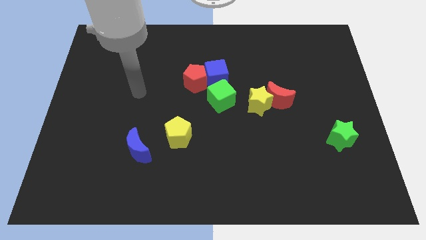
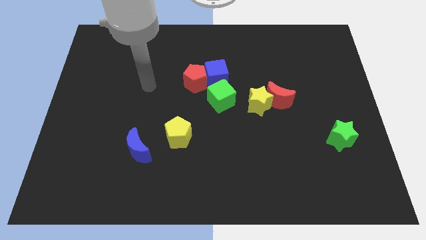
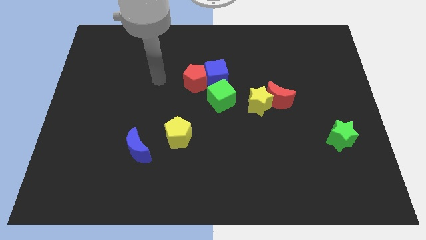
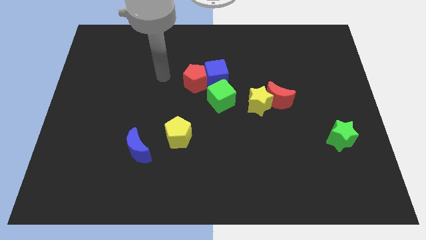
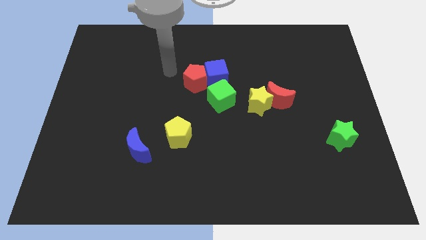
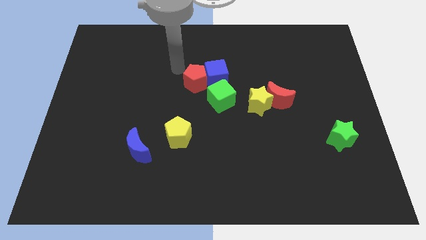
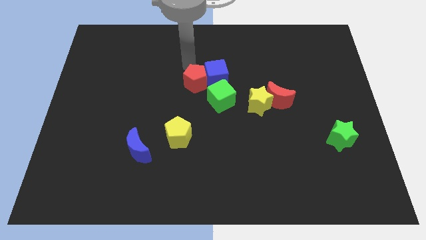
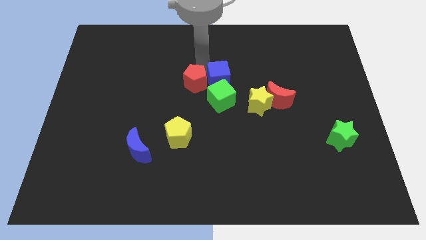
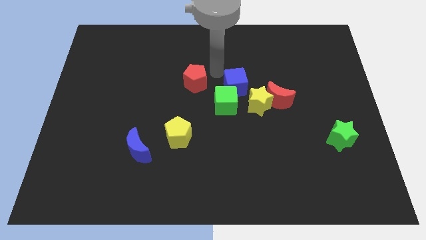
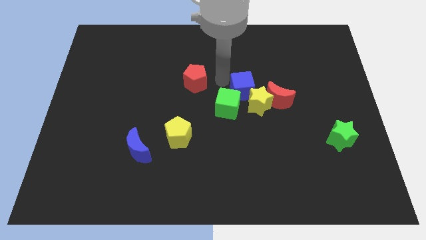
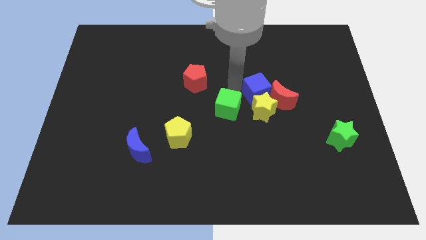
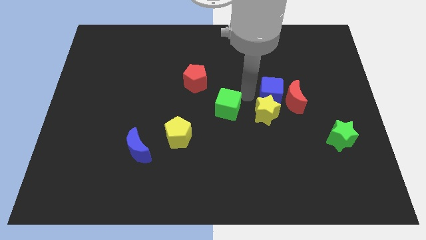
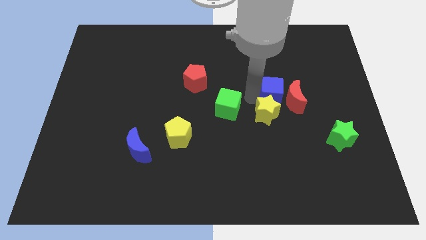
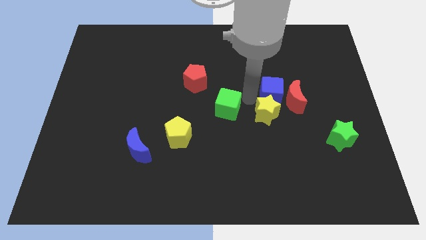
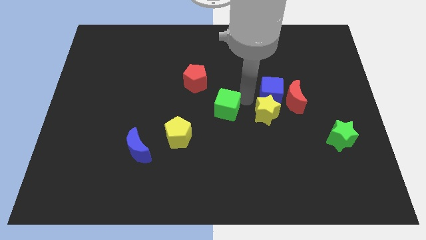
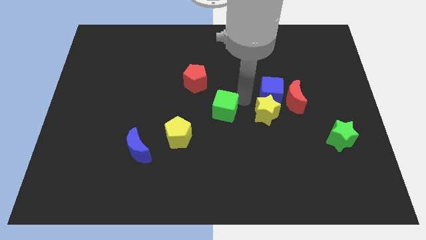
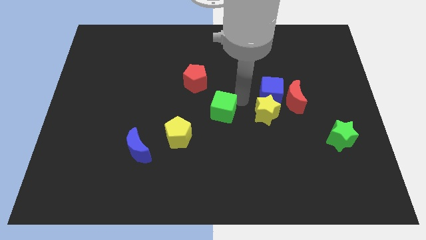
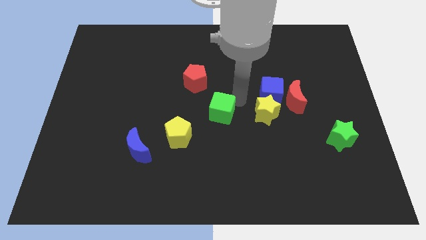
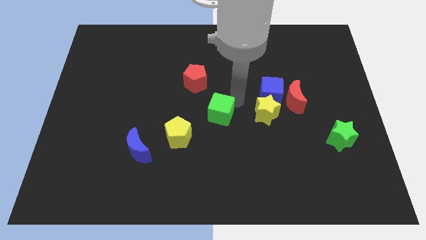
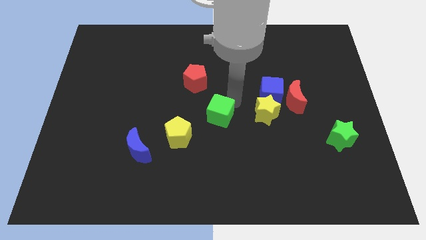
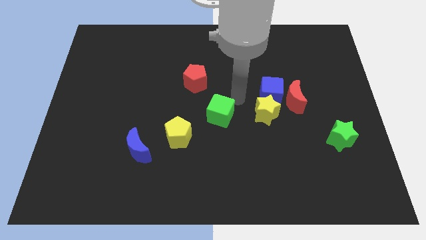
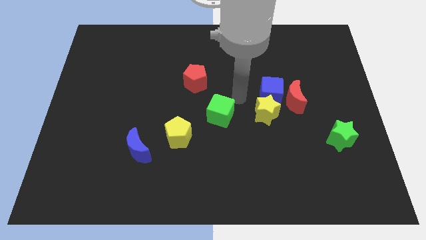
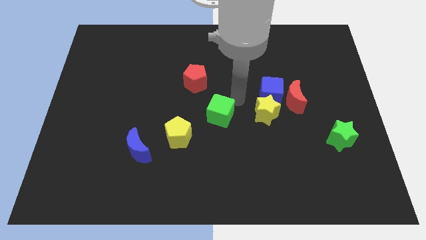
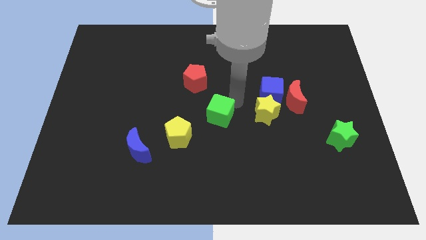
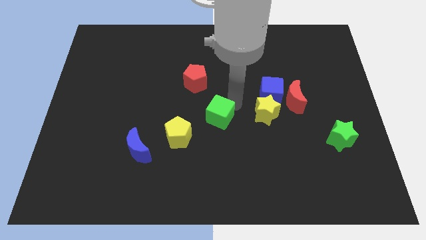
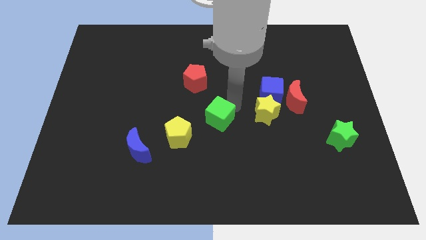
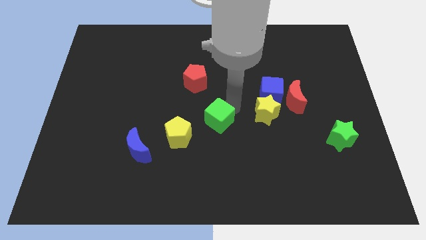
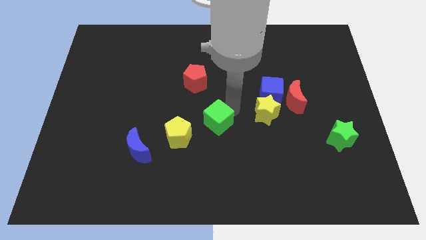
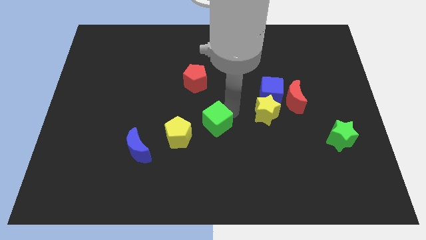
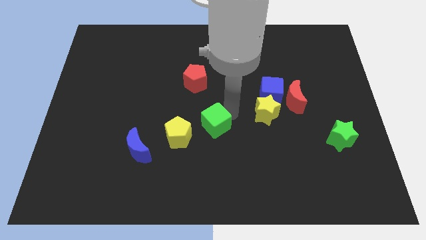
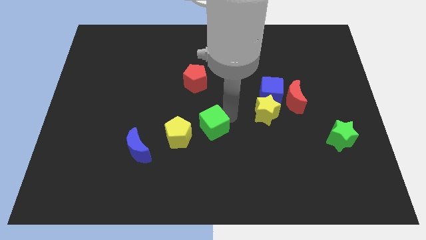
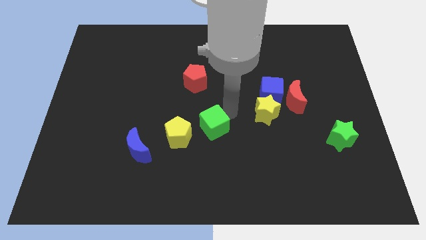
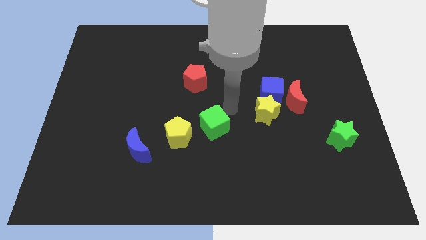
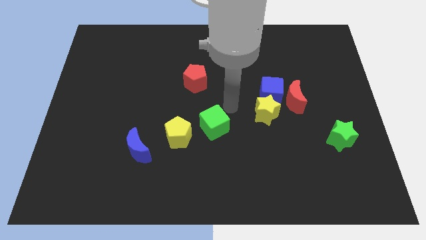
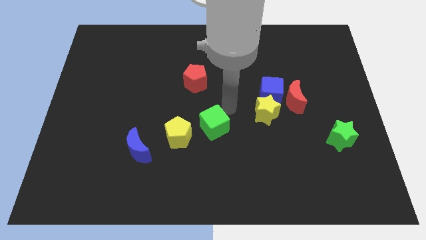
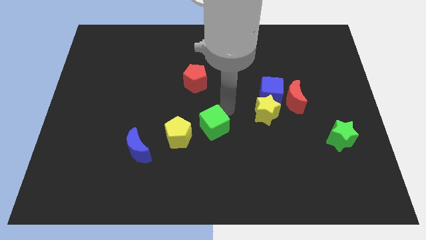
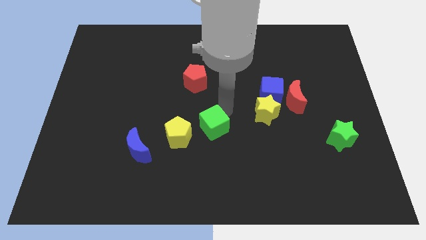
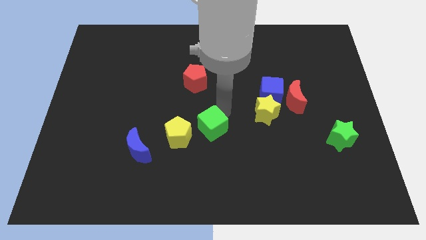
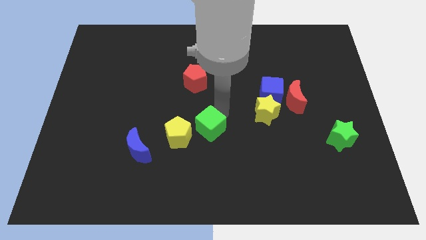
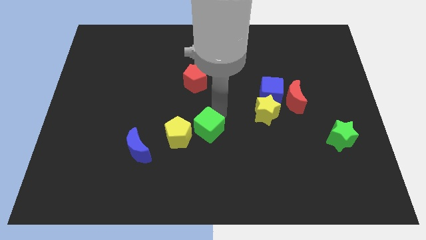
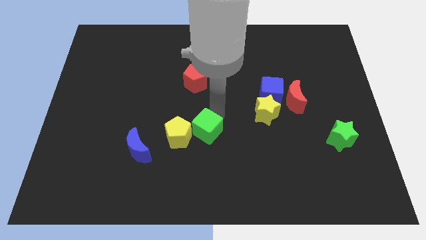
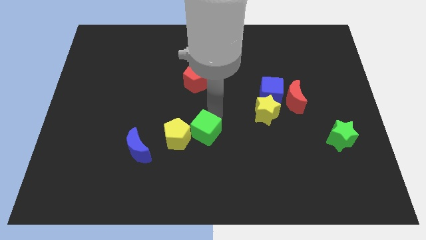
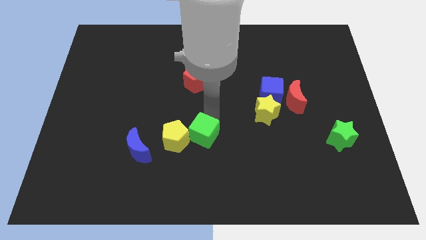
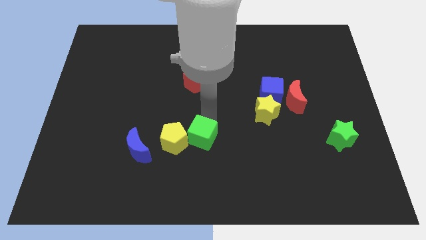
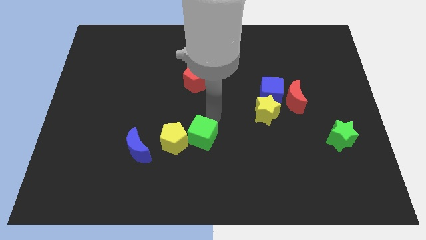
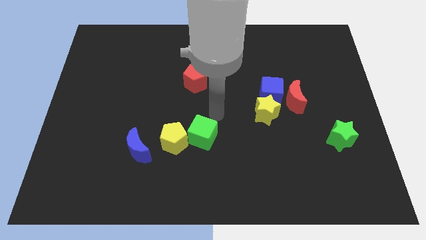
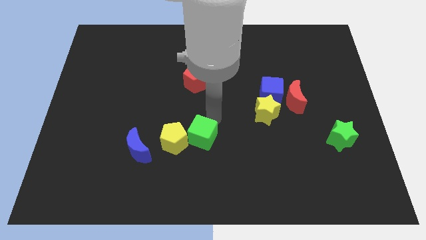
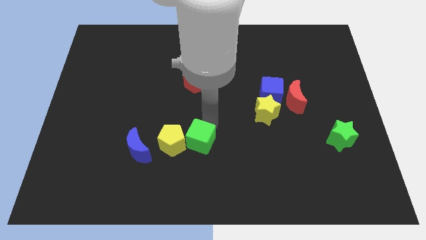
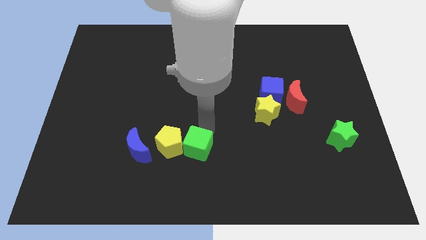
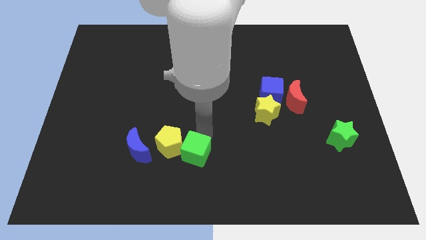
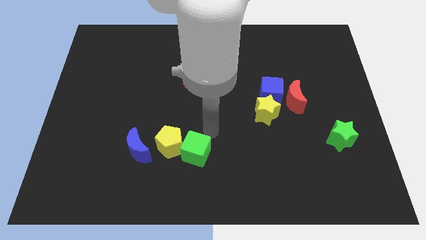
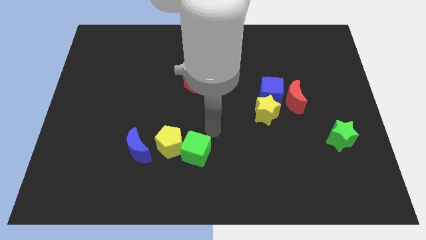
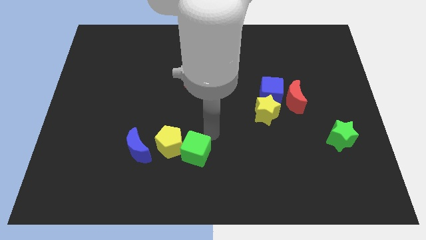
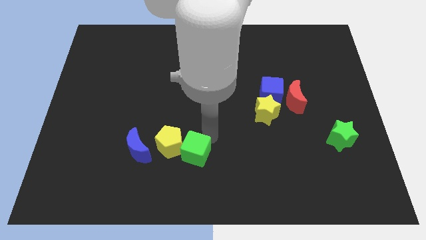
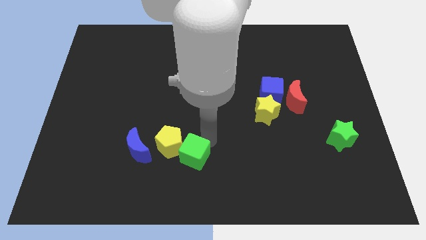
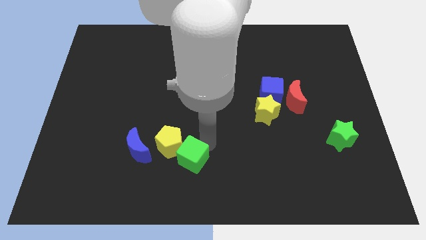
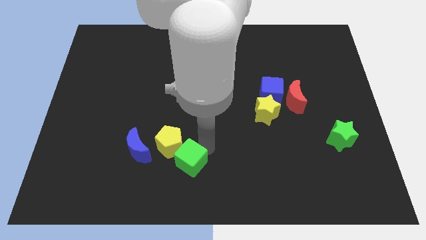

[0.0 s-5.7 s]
push the green cube below the yellow pentagon

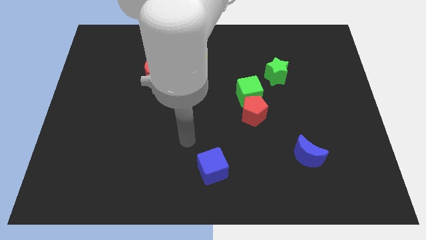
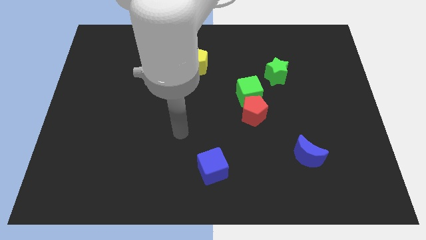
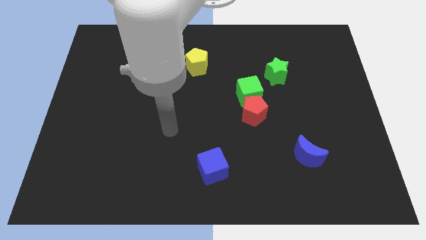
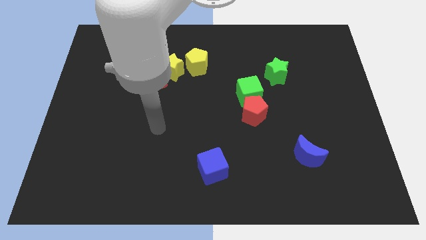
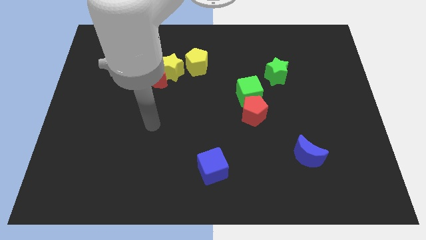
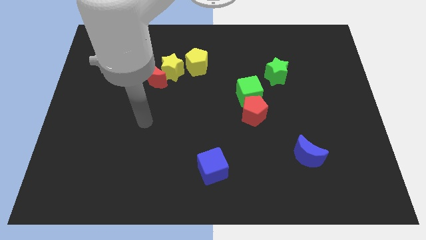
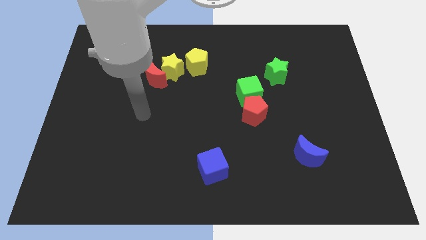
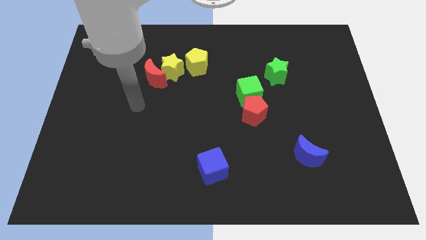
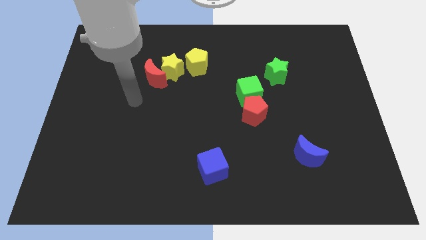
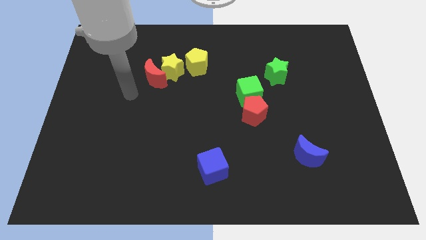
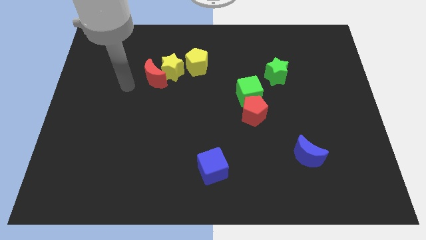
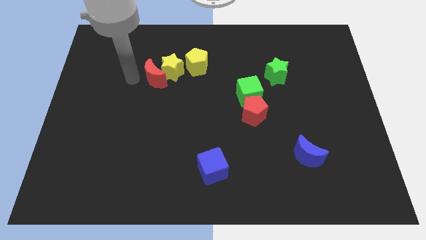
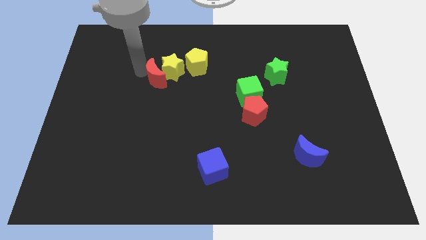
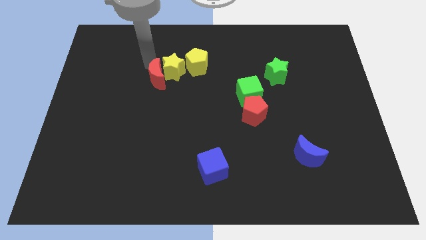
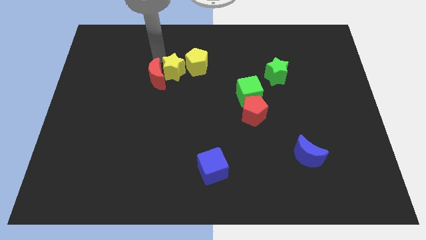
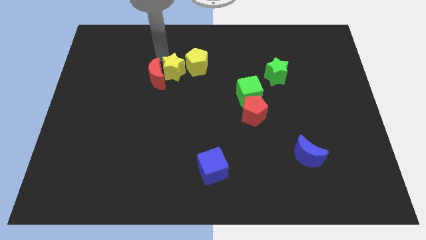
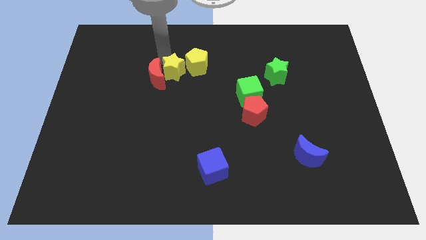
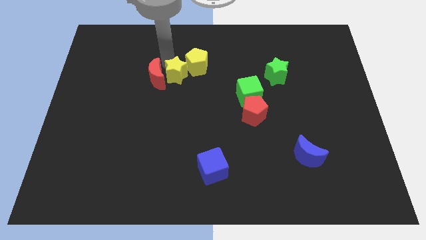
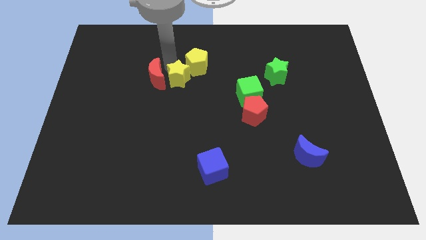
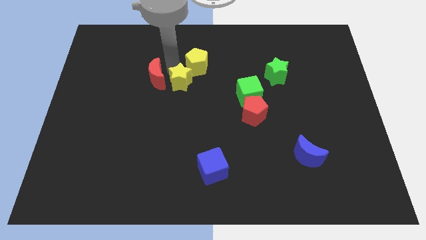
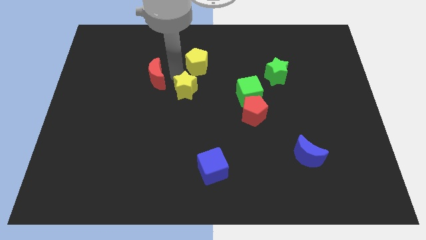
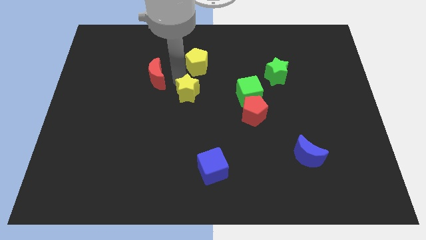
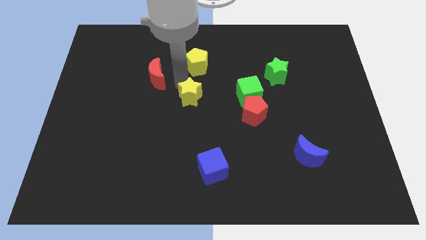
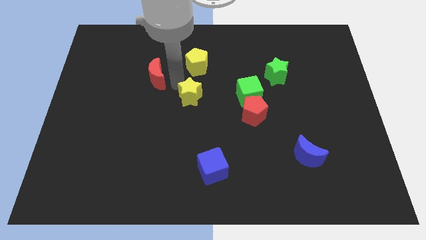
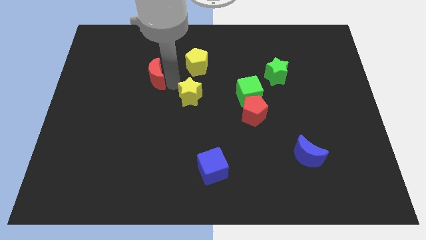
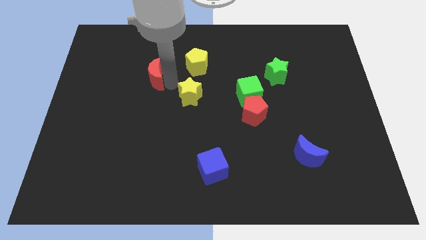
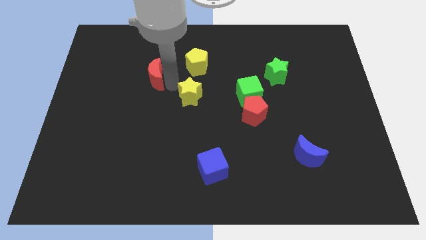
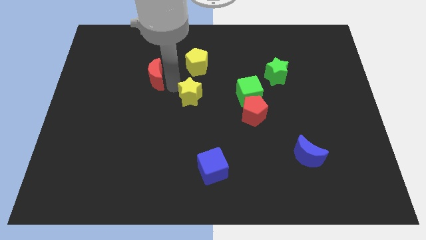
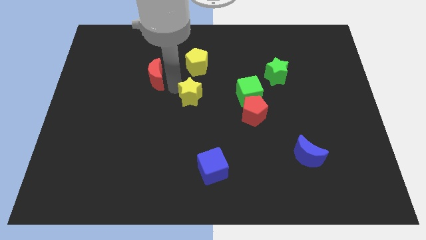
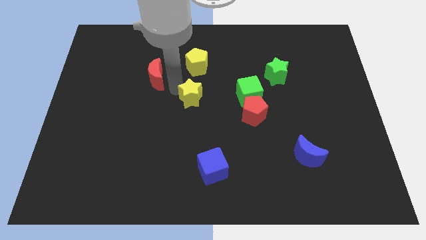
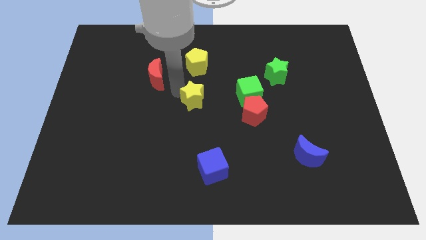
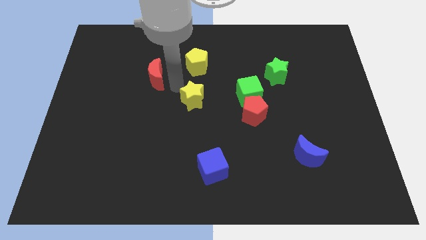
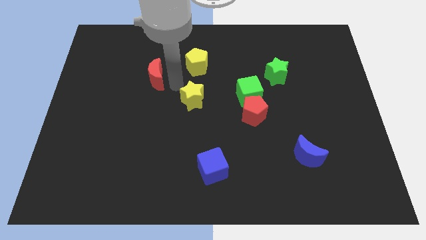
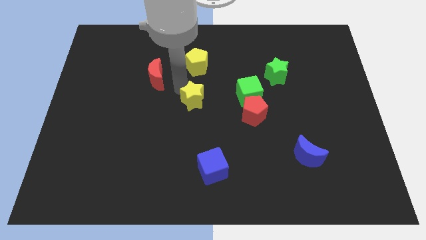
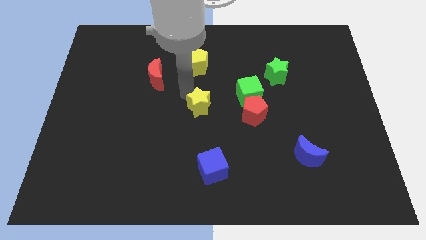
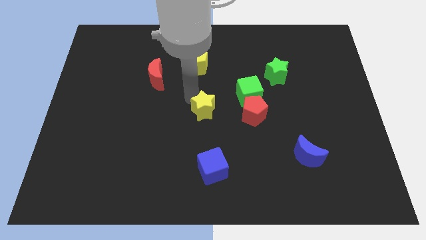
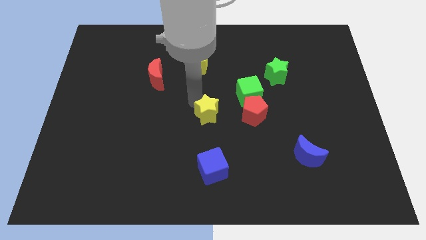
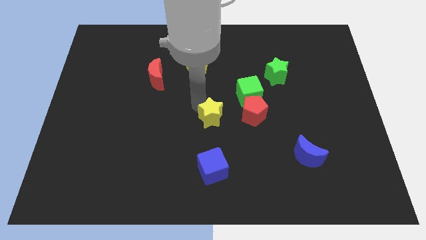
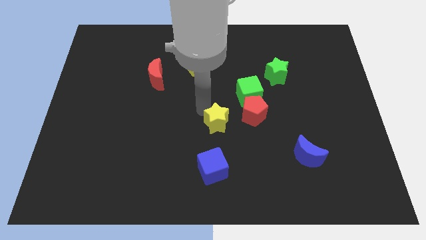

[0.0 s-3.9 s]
move the yellow star to the bottom left of the red pentagon
